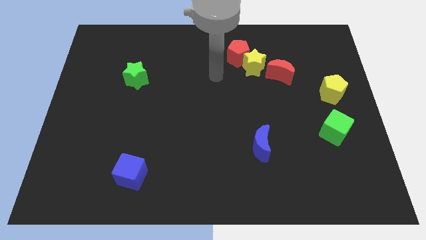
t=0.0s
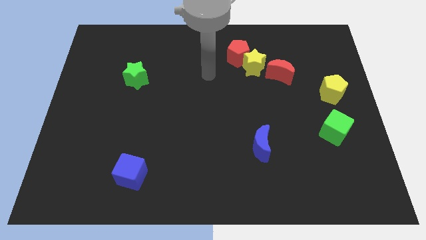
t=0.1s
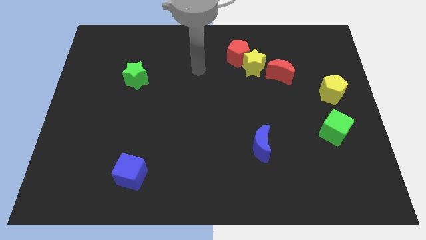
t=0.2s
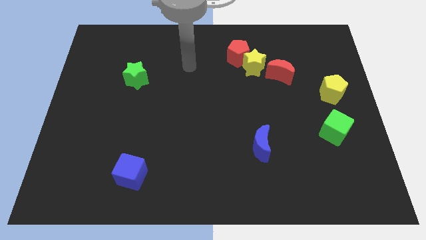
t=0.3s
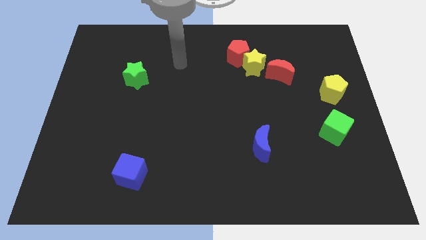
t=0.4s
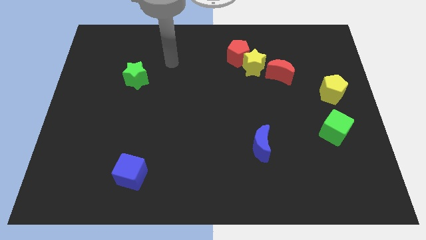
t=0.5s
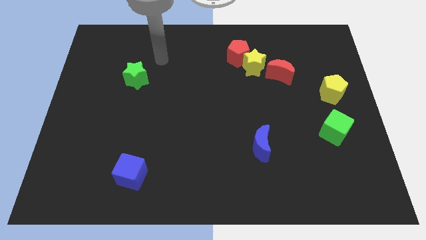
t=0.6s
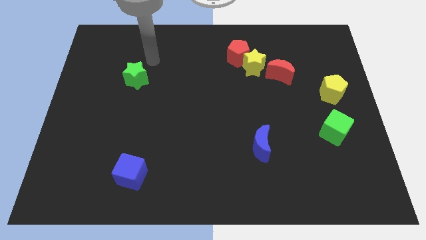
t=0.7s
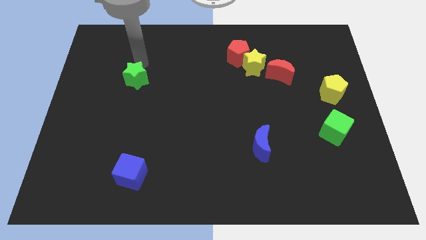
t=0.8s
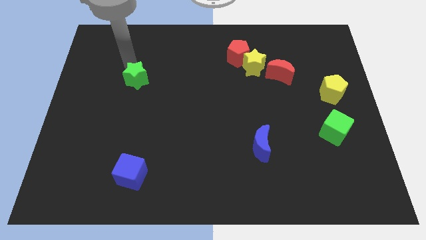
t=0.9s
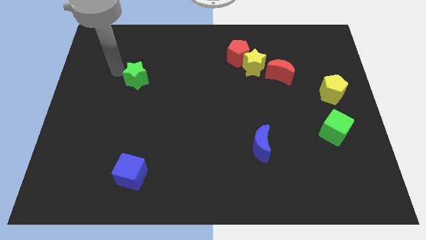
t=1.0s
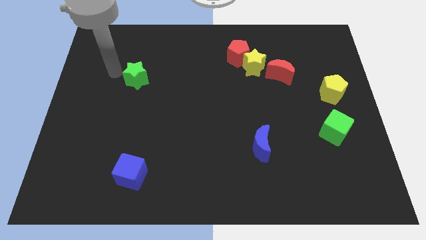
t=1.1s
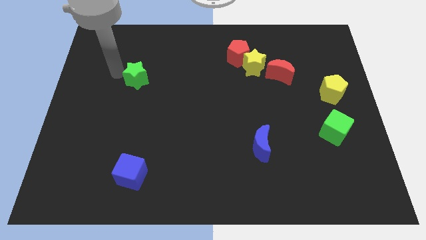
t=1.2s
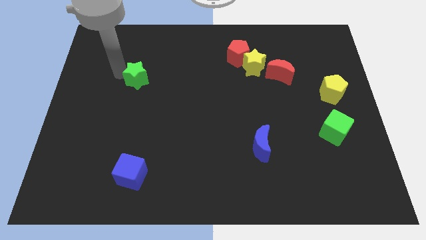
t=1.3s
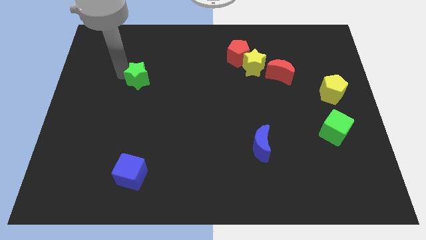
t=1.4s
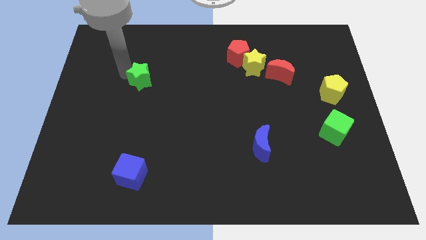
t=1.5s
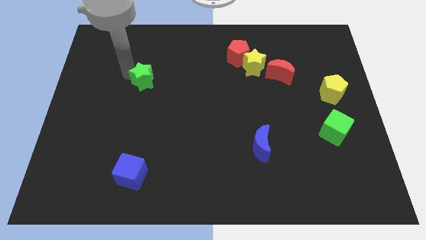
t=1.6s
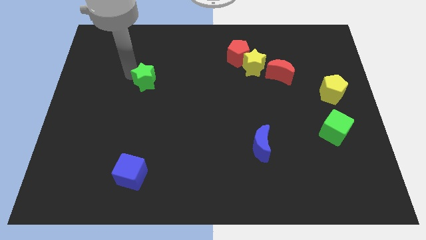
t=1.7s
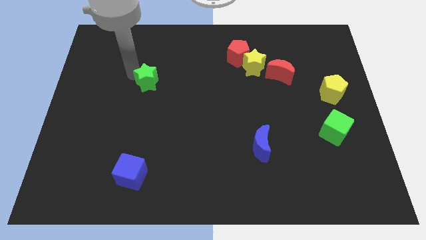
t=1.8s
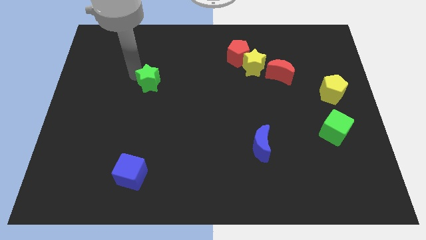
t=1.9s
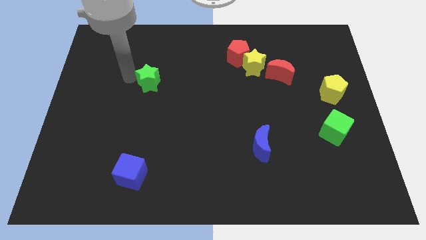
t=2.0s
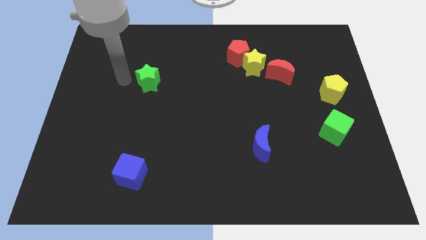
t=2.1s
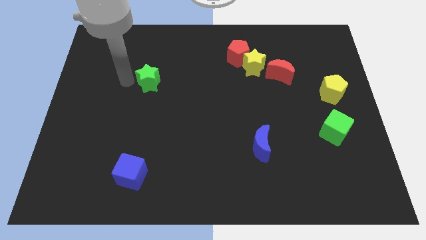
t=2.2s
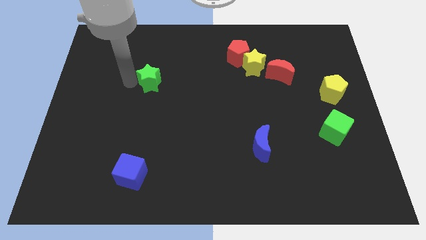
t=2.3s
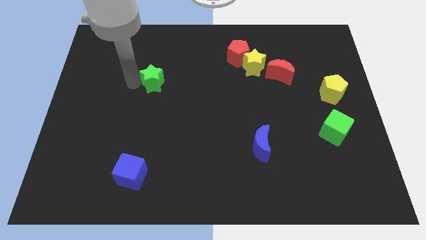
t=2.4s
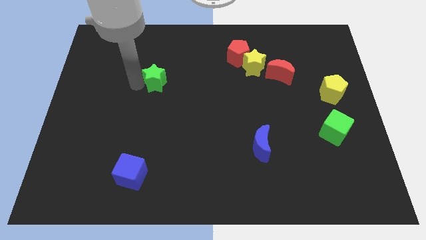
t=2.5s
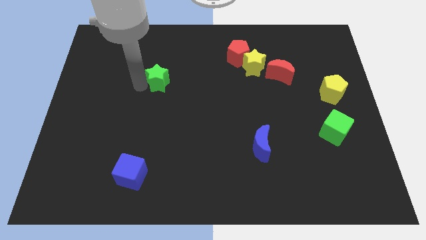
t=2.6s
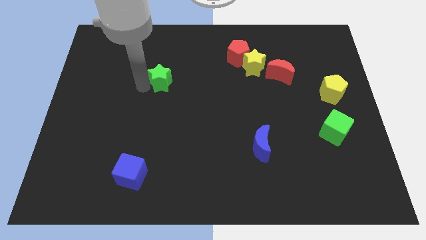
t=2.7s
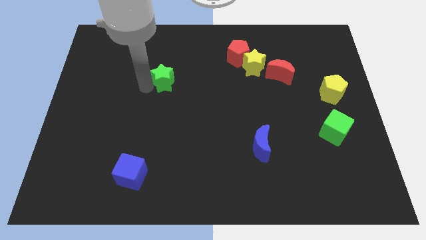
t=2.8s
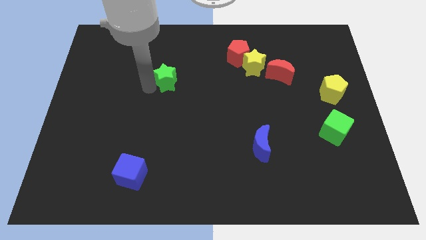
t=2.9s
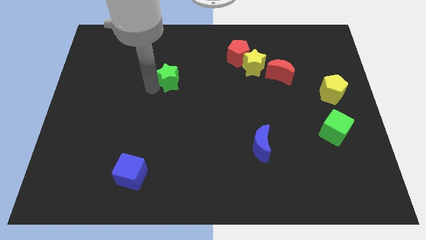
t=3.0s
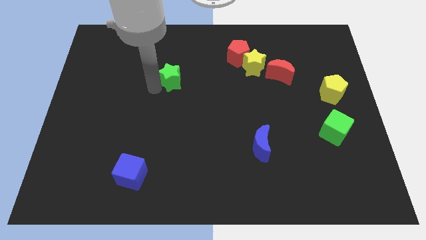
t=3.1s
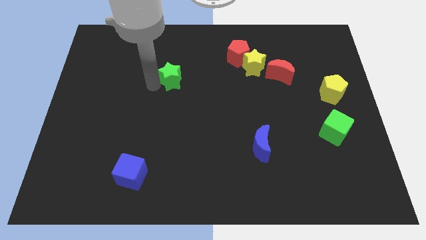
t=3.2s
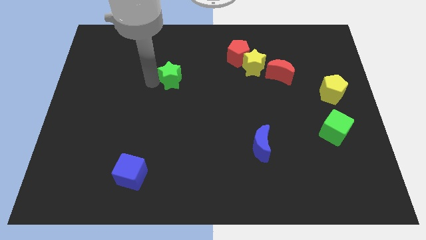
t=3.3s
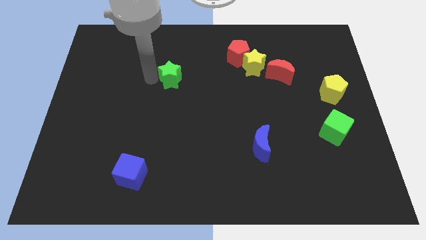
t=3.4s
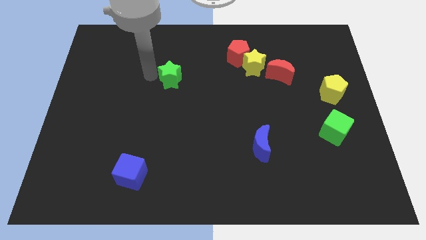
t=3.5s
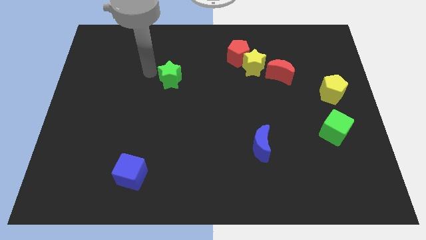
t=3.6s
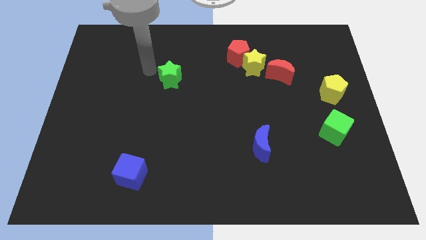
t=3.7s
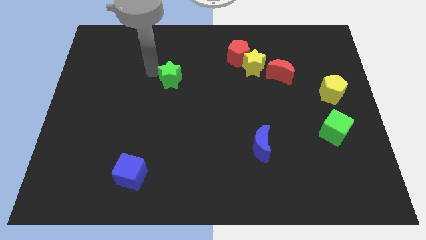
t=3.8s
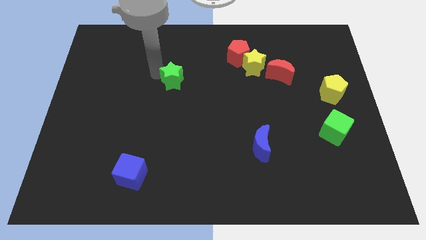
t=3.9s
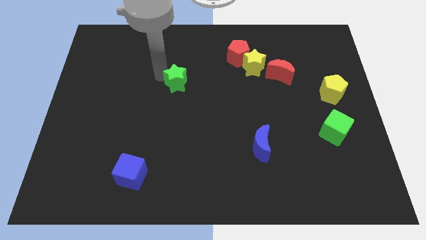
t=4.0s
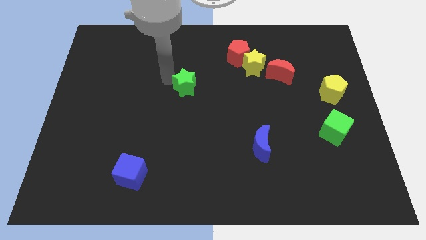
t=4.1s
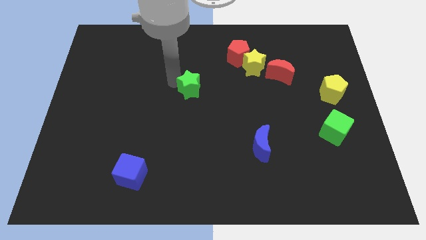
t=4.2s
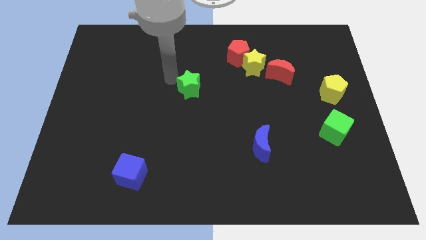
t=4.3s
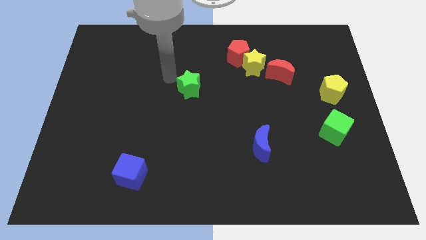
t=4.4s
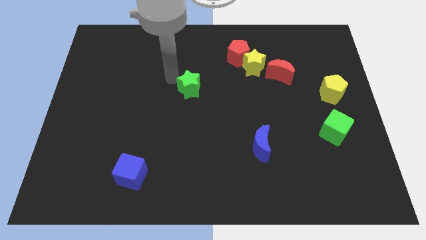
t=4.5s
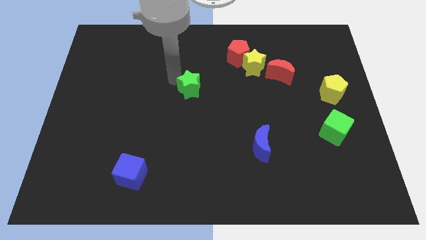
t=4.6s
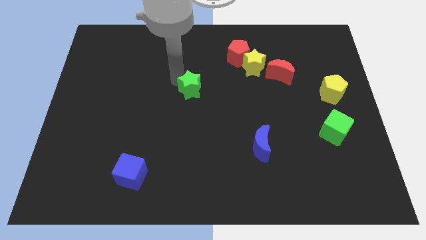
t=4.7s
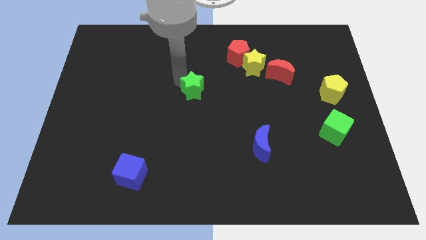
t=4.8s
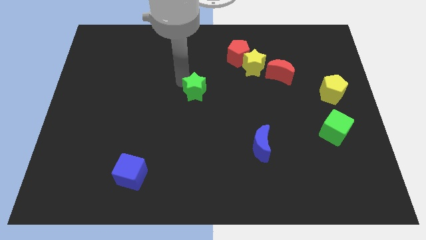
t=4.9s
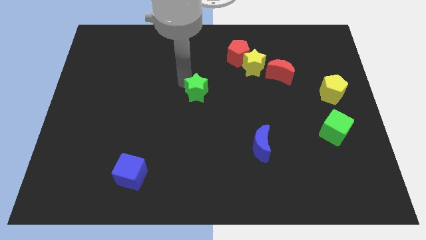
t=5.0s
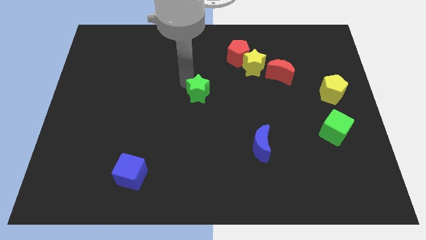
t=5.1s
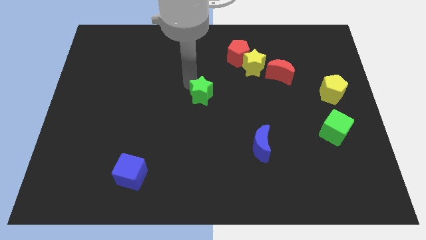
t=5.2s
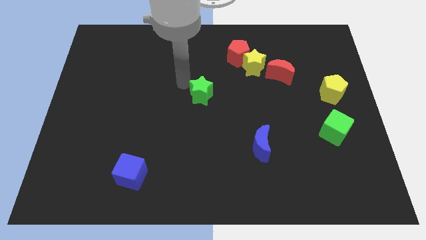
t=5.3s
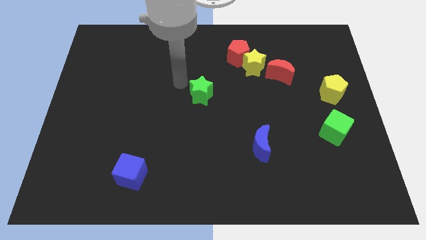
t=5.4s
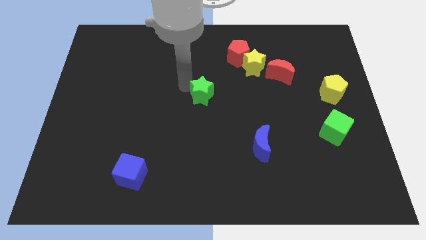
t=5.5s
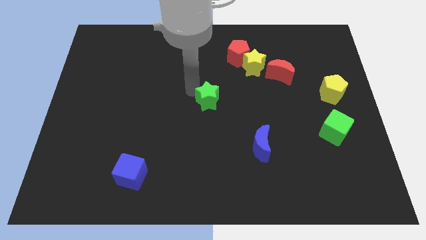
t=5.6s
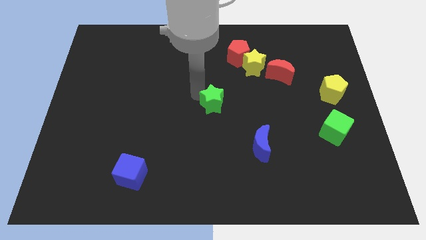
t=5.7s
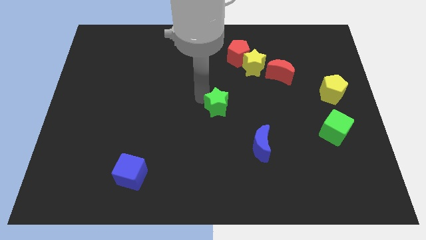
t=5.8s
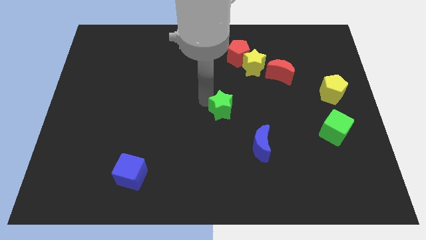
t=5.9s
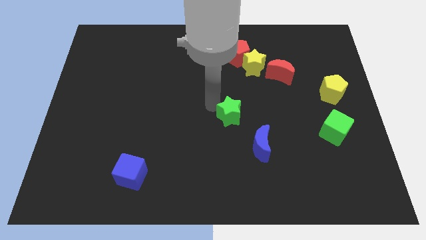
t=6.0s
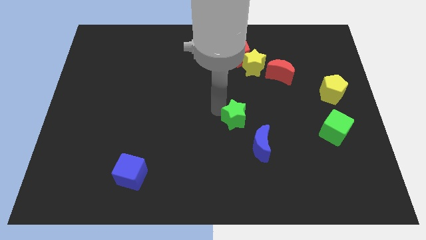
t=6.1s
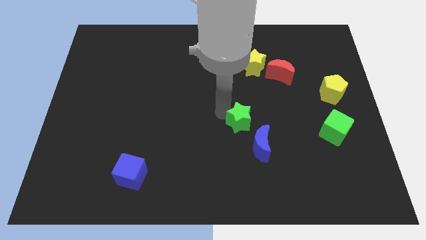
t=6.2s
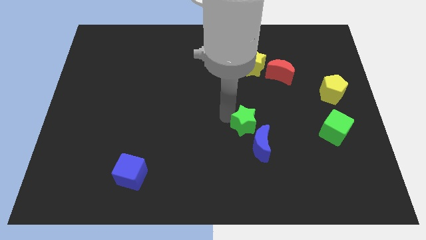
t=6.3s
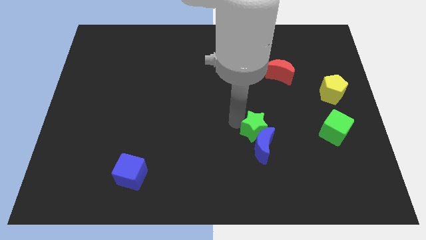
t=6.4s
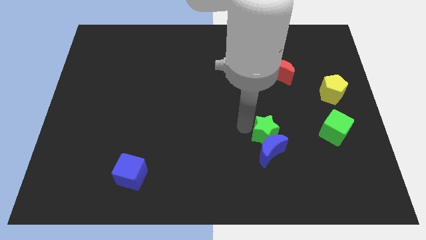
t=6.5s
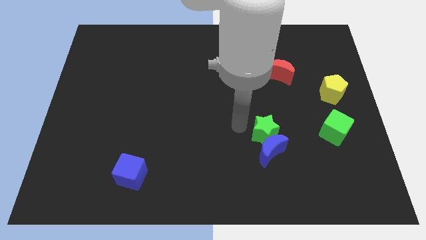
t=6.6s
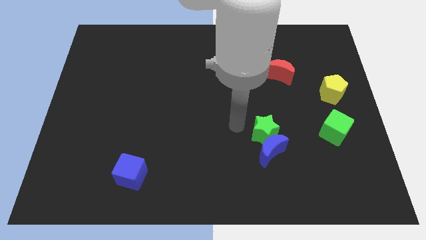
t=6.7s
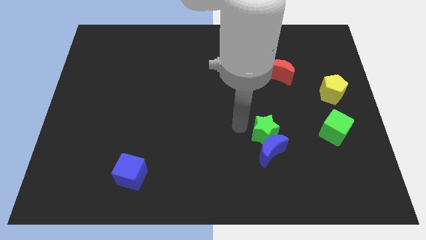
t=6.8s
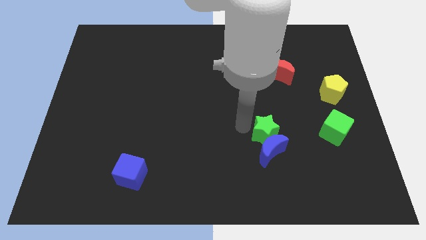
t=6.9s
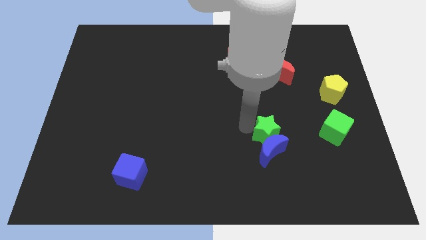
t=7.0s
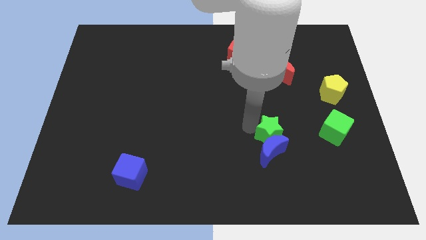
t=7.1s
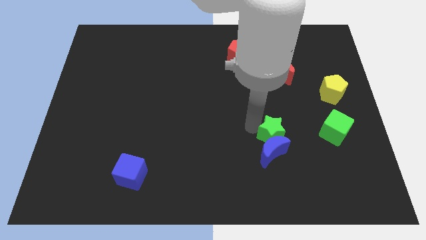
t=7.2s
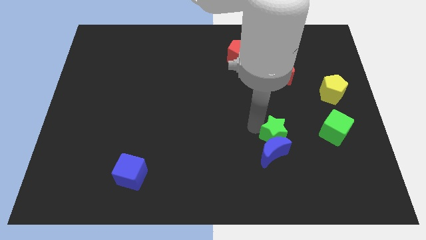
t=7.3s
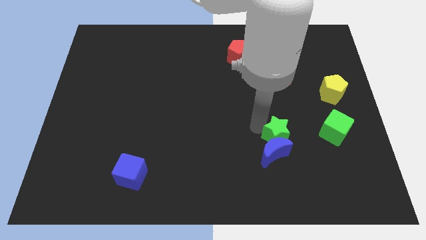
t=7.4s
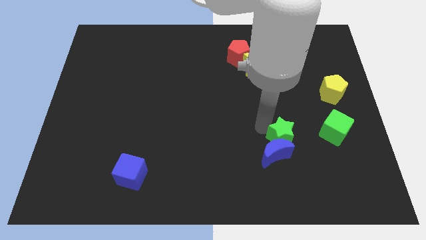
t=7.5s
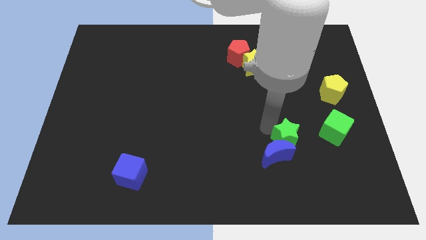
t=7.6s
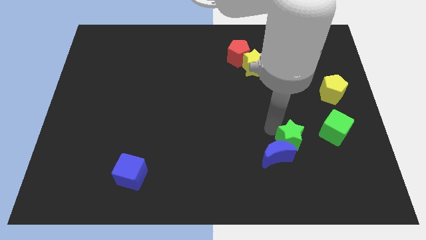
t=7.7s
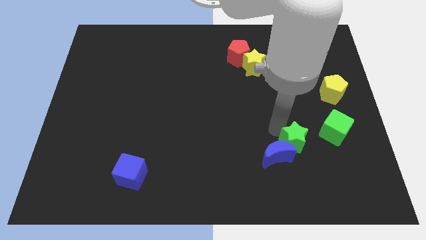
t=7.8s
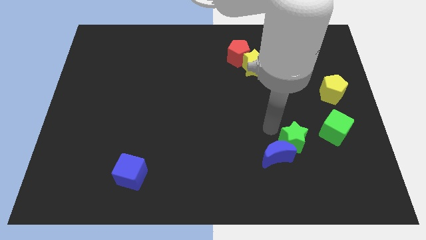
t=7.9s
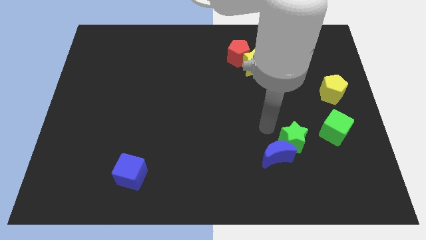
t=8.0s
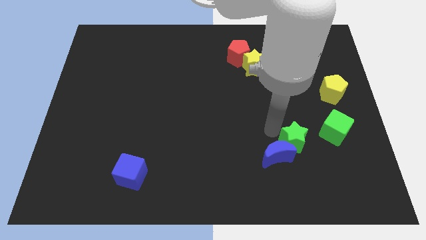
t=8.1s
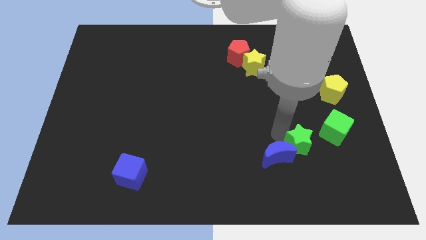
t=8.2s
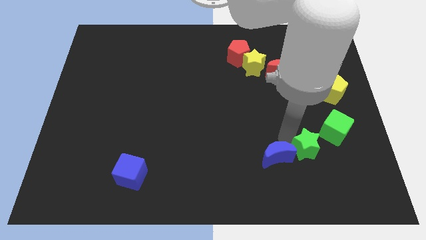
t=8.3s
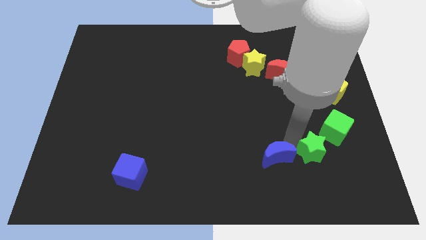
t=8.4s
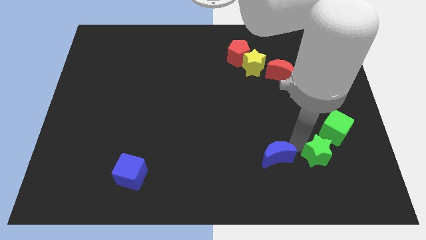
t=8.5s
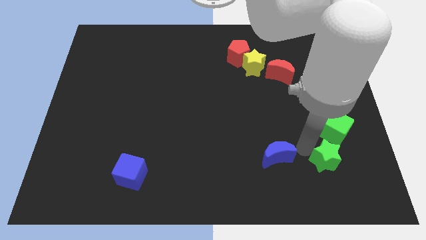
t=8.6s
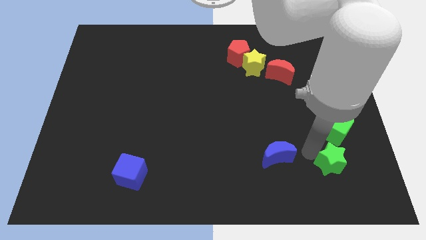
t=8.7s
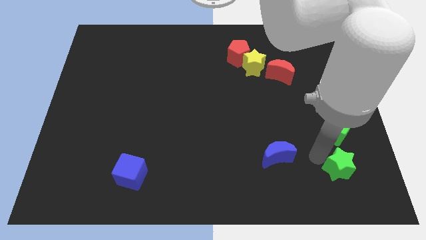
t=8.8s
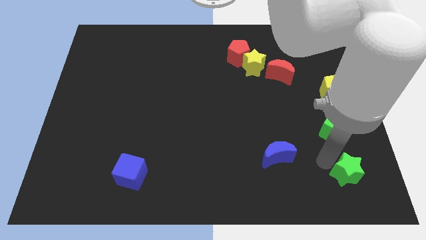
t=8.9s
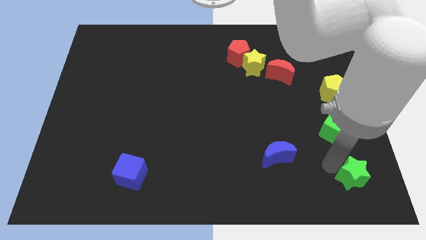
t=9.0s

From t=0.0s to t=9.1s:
put the green star to the bottom right
